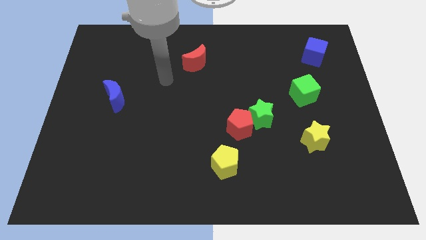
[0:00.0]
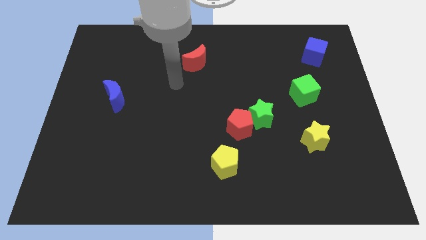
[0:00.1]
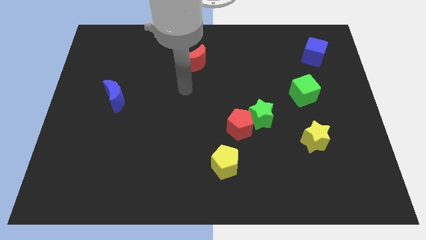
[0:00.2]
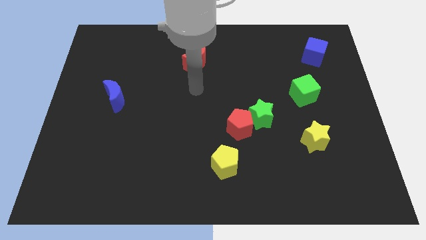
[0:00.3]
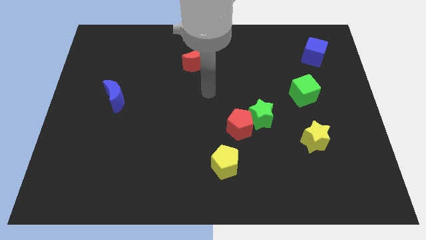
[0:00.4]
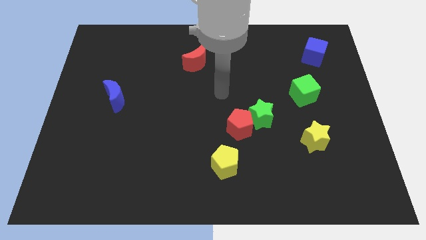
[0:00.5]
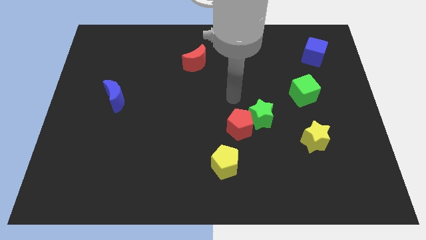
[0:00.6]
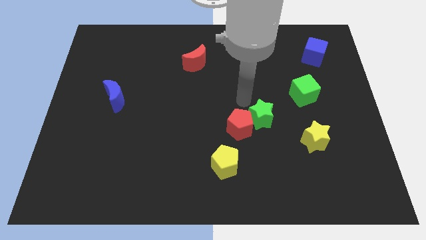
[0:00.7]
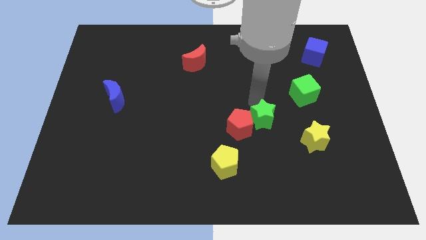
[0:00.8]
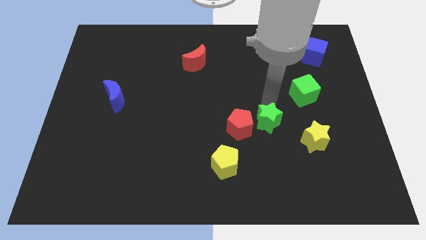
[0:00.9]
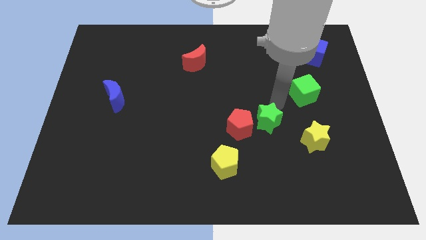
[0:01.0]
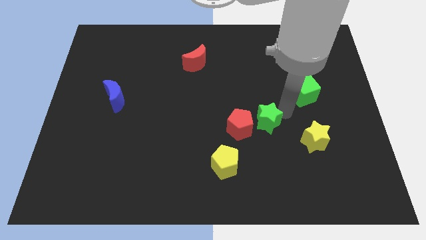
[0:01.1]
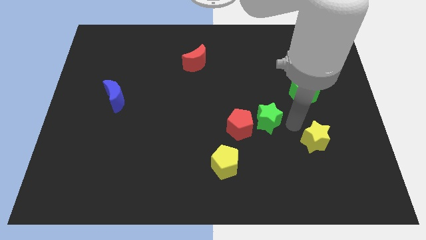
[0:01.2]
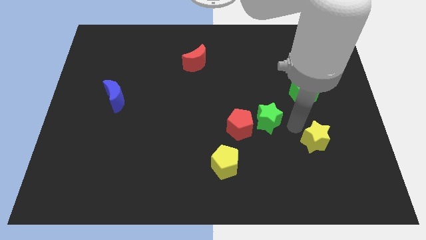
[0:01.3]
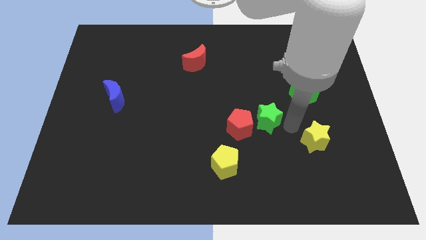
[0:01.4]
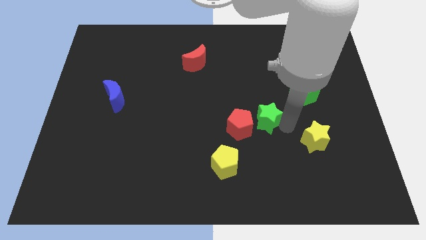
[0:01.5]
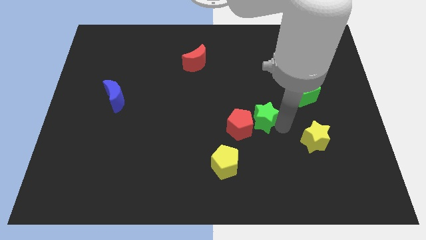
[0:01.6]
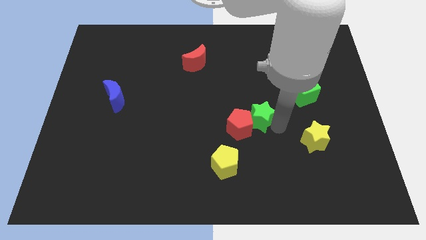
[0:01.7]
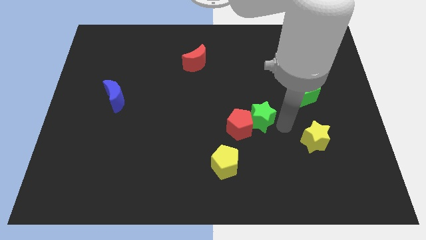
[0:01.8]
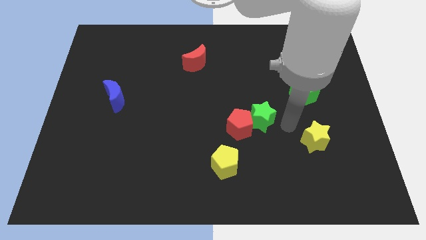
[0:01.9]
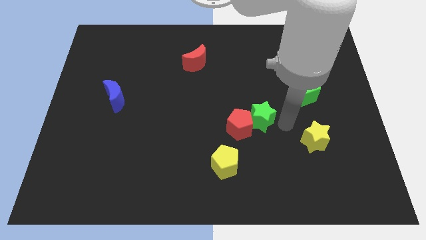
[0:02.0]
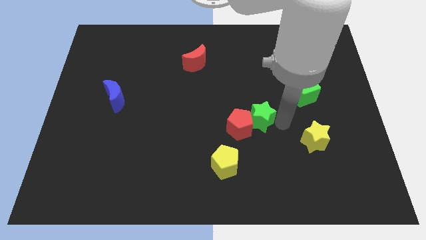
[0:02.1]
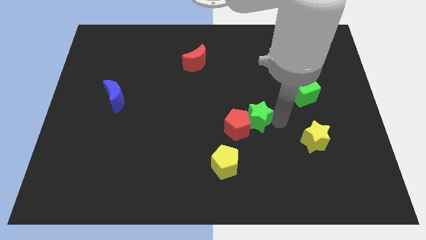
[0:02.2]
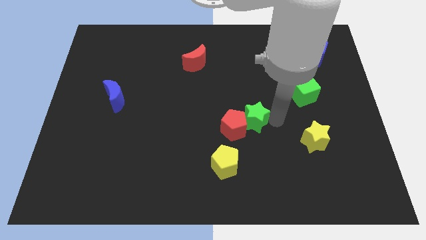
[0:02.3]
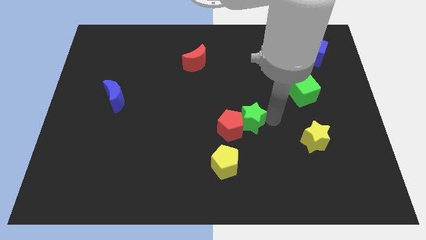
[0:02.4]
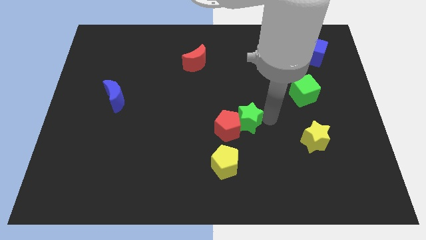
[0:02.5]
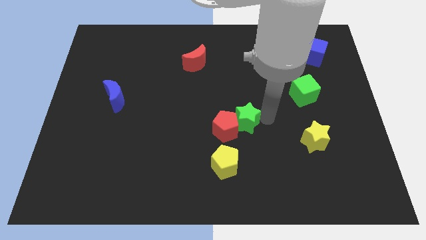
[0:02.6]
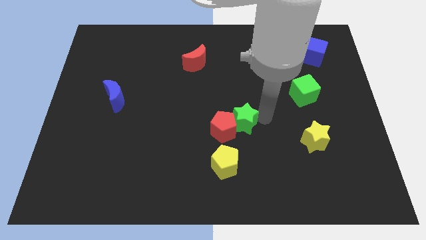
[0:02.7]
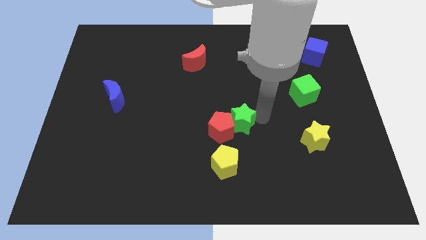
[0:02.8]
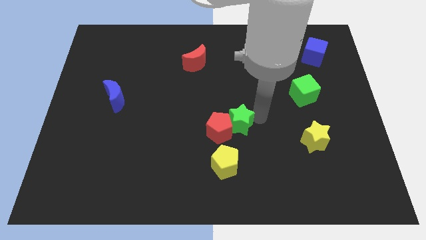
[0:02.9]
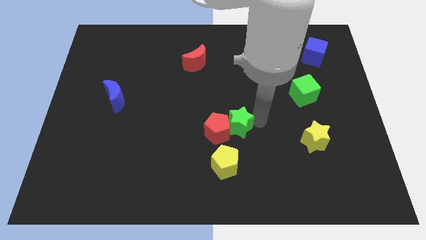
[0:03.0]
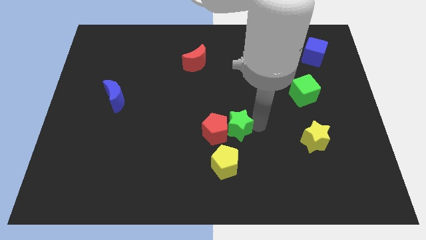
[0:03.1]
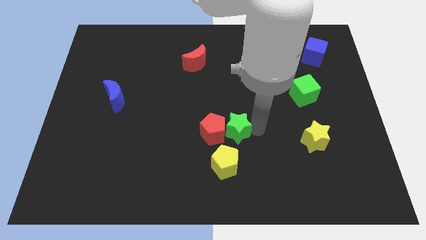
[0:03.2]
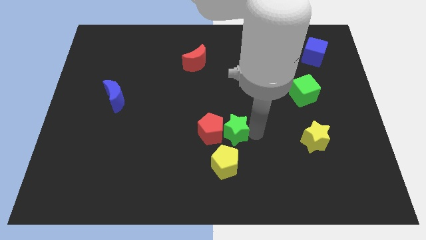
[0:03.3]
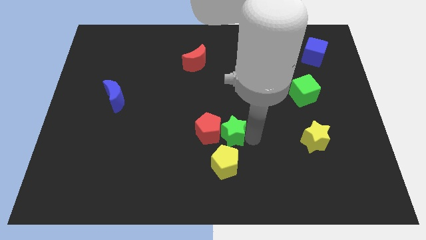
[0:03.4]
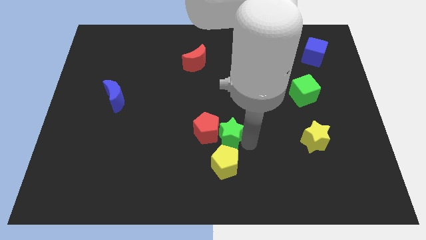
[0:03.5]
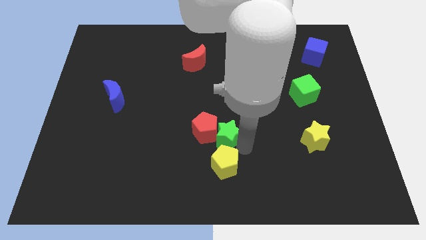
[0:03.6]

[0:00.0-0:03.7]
slide the green star somewhat left
